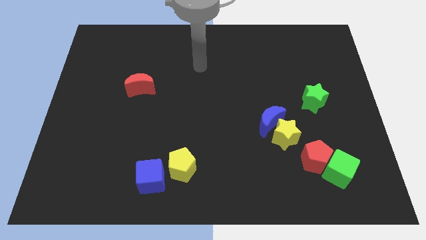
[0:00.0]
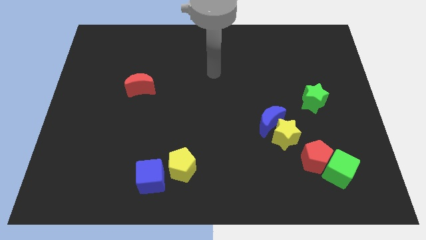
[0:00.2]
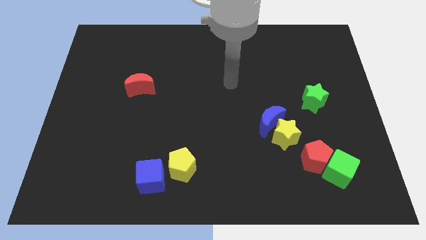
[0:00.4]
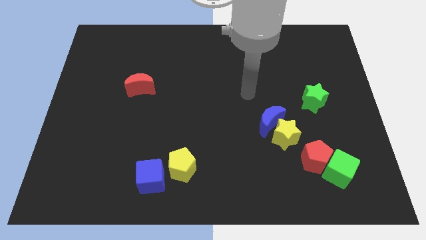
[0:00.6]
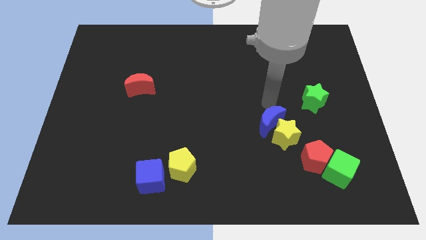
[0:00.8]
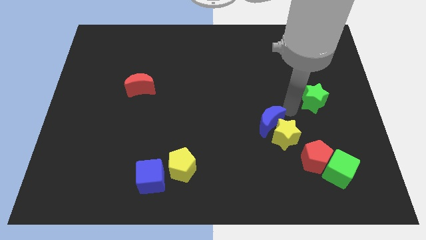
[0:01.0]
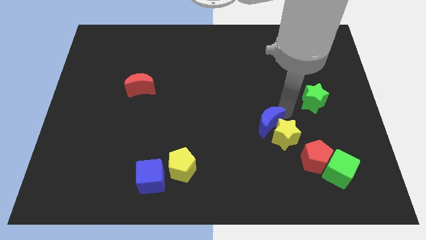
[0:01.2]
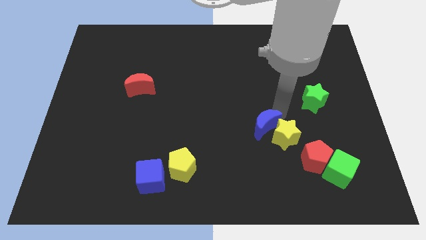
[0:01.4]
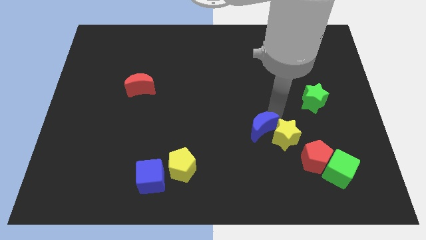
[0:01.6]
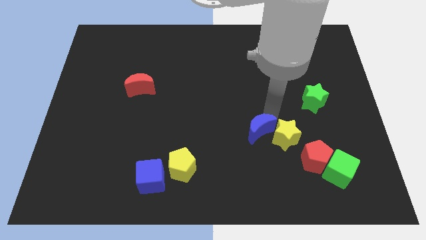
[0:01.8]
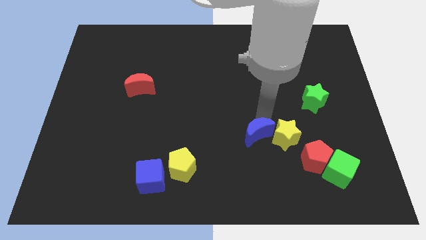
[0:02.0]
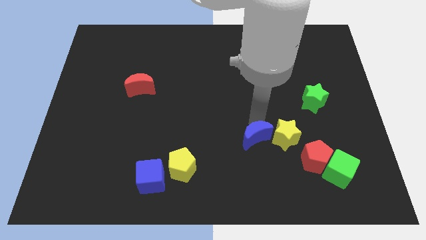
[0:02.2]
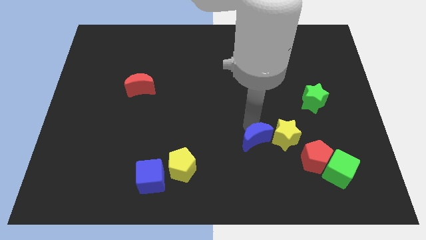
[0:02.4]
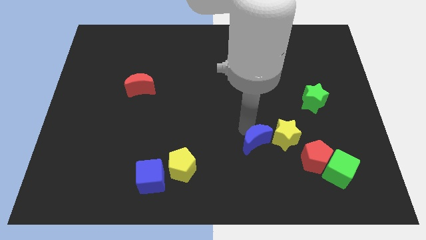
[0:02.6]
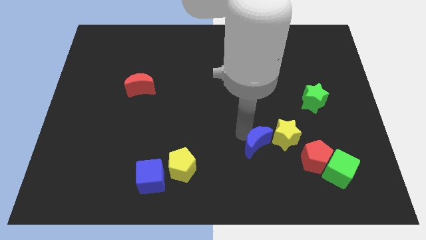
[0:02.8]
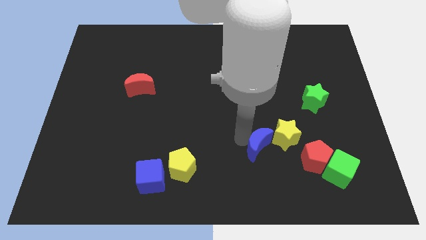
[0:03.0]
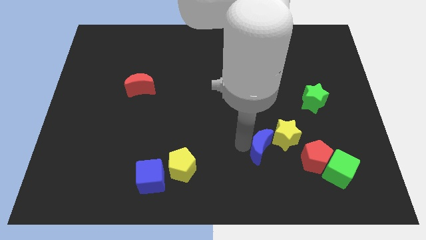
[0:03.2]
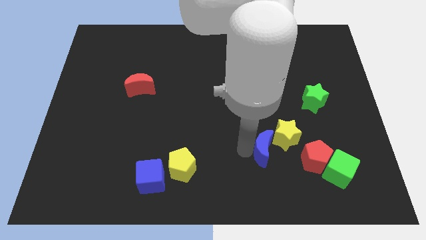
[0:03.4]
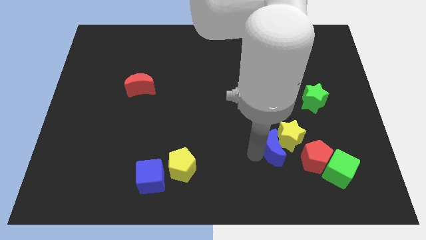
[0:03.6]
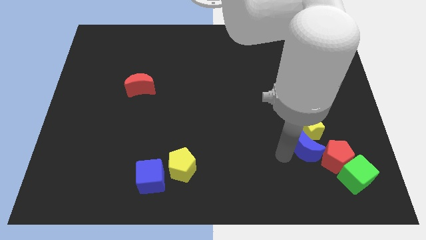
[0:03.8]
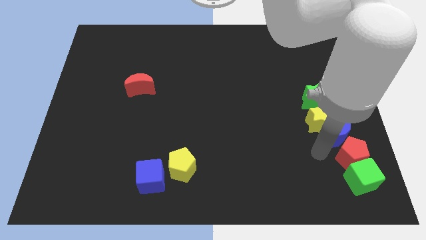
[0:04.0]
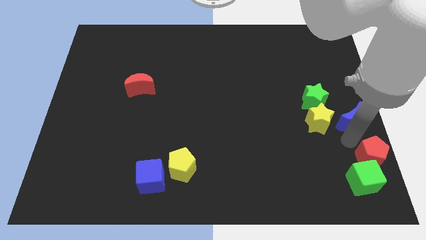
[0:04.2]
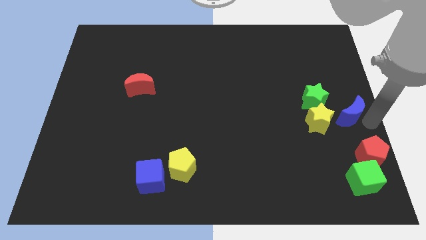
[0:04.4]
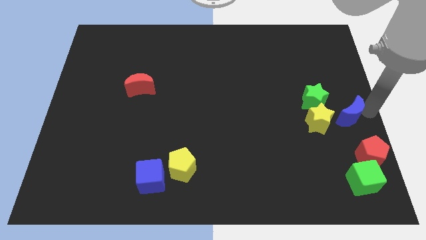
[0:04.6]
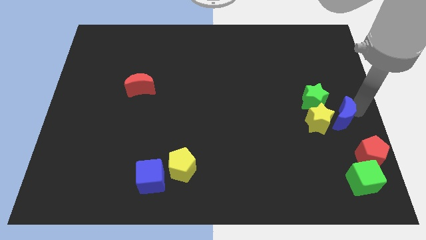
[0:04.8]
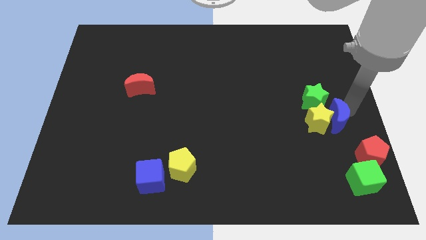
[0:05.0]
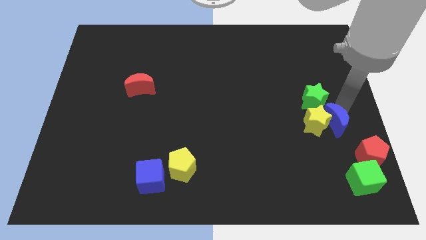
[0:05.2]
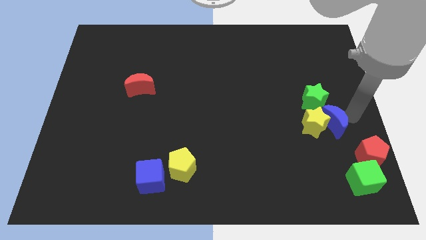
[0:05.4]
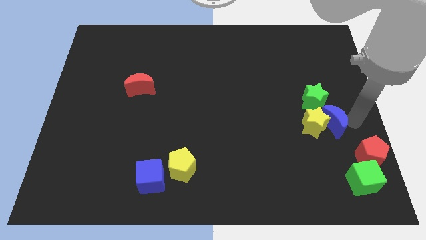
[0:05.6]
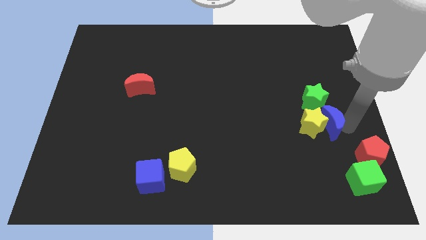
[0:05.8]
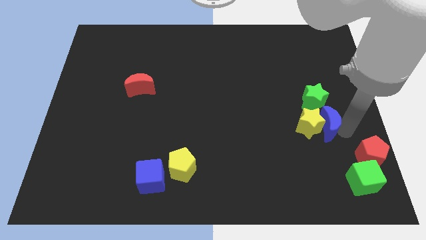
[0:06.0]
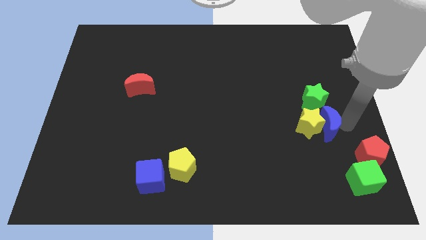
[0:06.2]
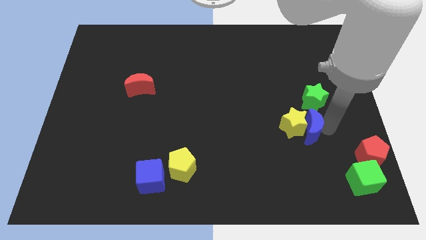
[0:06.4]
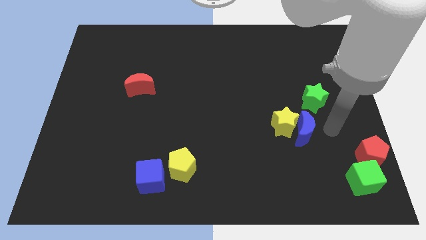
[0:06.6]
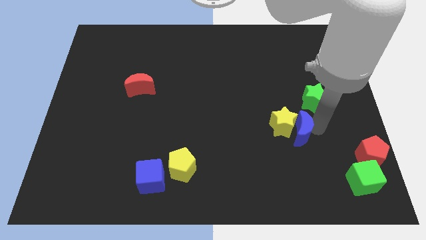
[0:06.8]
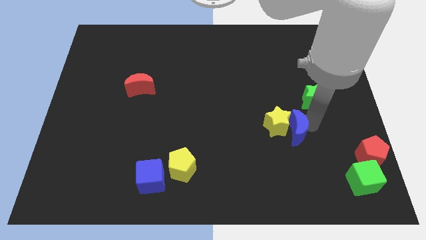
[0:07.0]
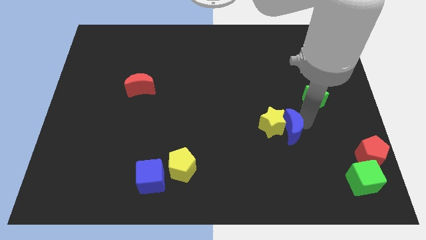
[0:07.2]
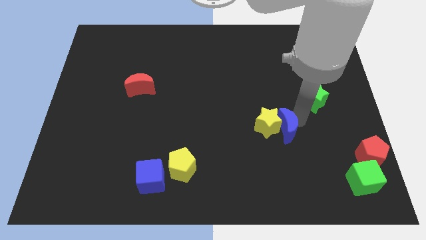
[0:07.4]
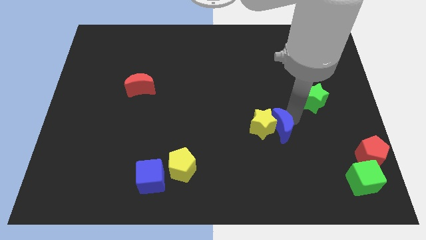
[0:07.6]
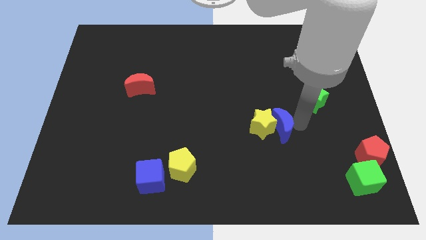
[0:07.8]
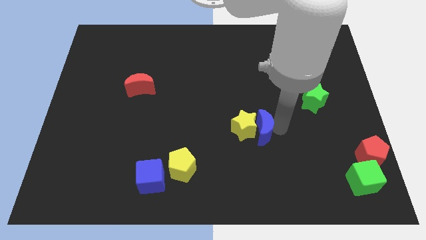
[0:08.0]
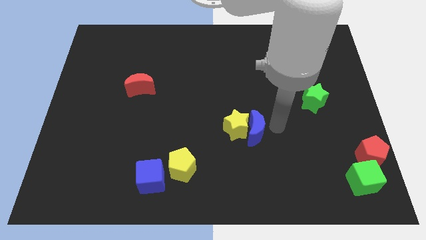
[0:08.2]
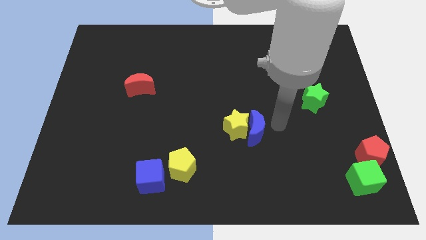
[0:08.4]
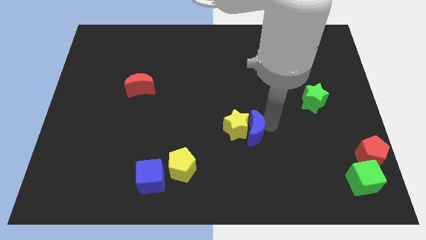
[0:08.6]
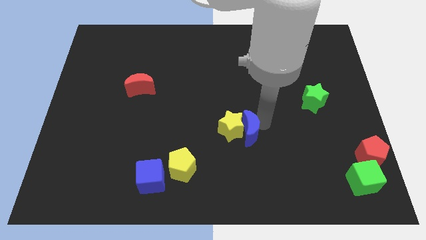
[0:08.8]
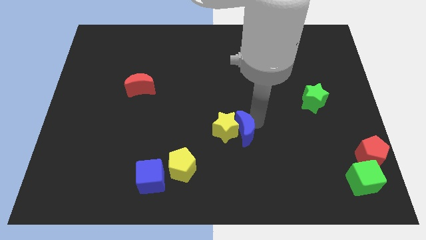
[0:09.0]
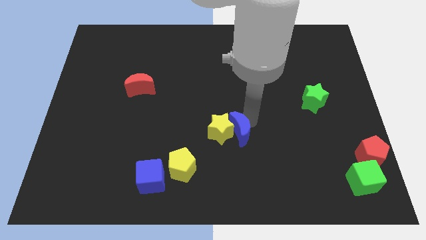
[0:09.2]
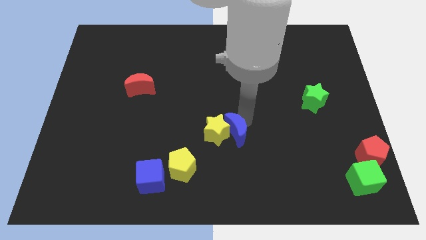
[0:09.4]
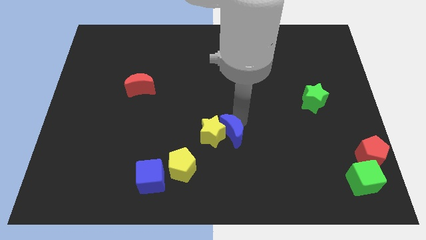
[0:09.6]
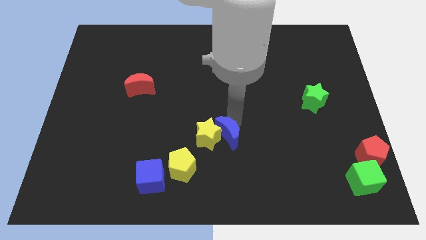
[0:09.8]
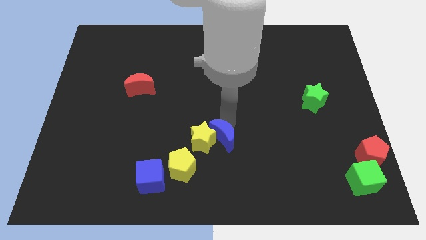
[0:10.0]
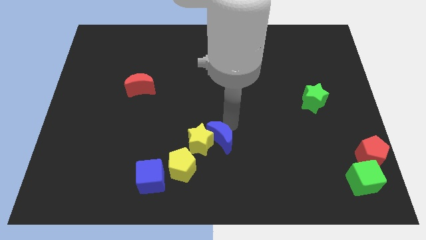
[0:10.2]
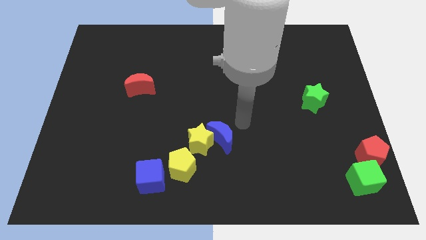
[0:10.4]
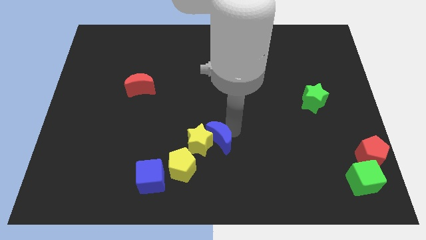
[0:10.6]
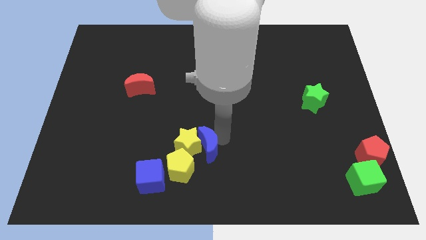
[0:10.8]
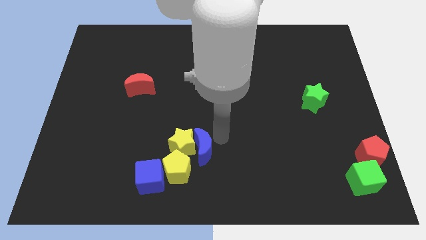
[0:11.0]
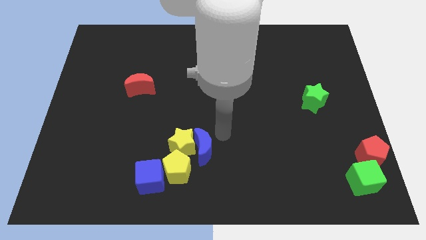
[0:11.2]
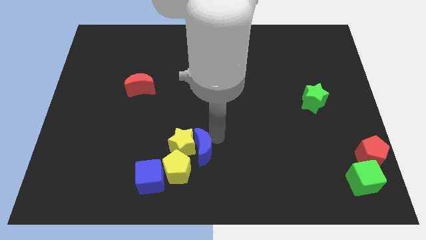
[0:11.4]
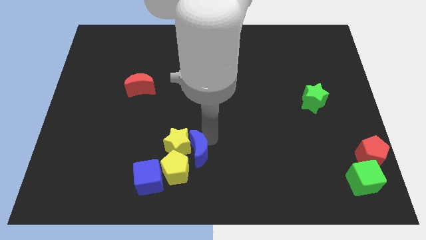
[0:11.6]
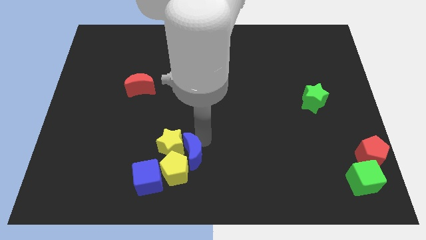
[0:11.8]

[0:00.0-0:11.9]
move the blue moon to the yellow pentagon

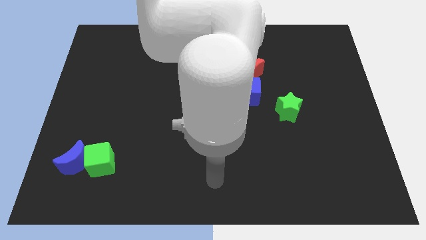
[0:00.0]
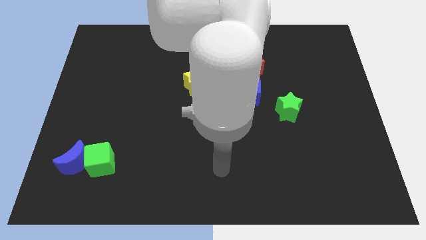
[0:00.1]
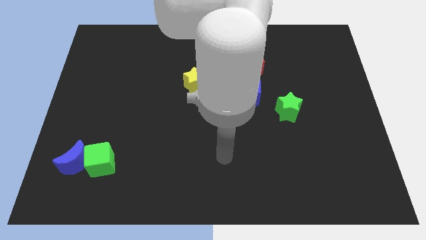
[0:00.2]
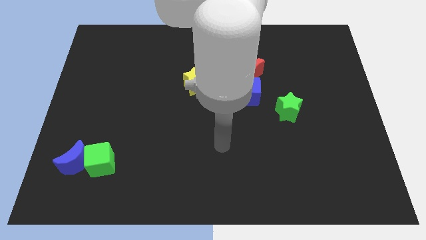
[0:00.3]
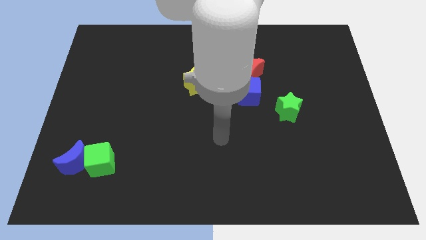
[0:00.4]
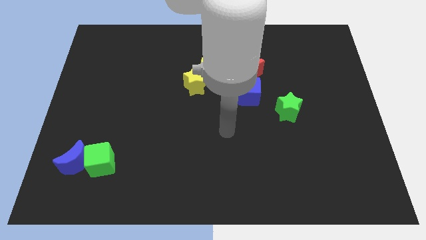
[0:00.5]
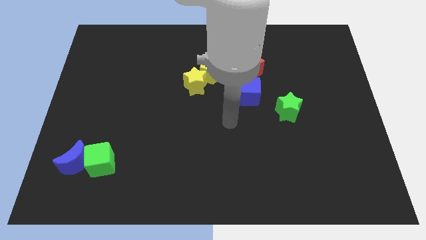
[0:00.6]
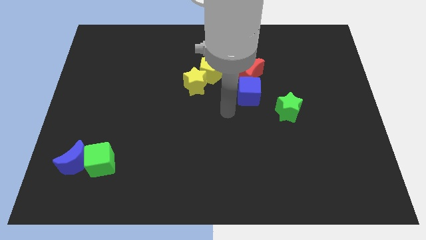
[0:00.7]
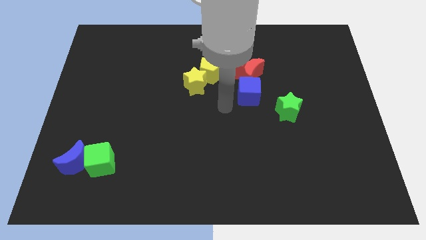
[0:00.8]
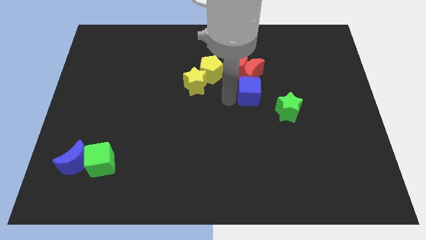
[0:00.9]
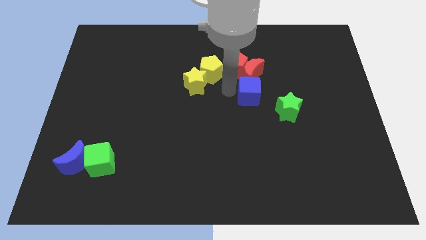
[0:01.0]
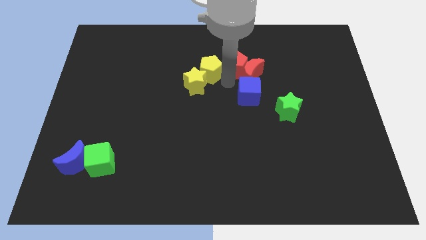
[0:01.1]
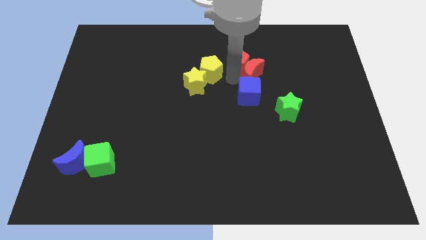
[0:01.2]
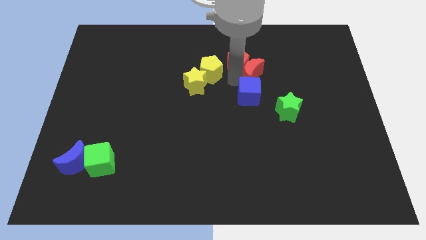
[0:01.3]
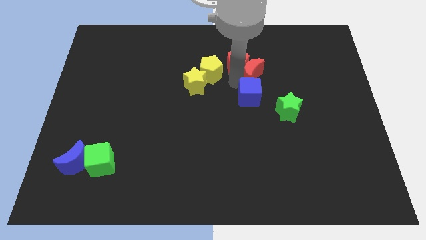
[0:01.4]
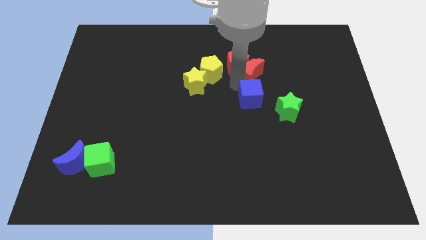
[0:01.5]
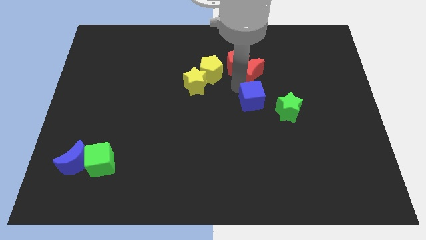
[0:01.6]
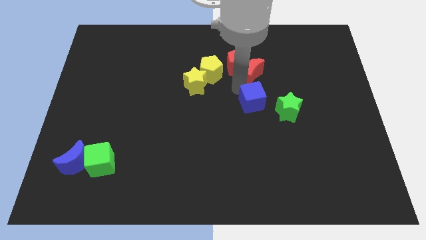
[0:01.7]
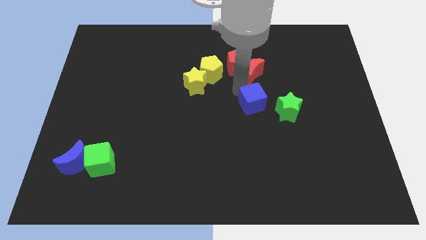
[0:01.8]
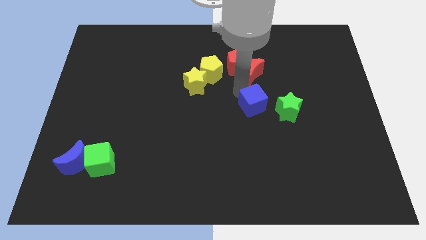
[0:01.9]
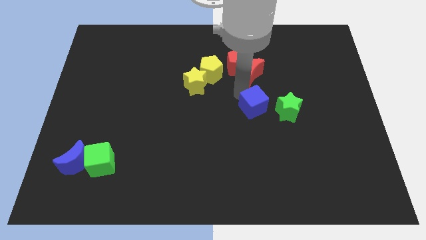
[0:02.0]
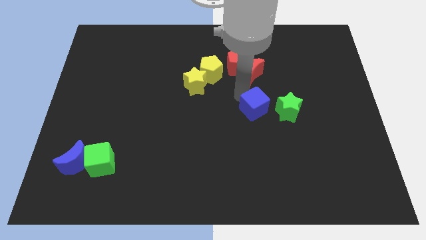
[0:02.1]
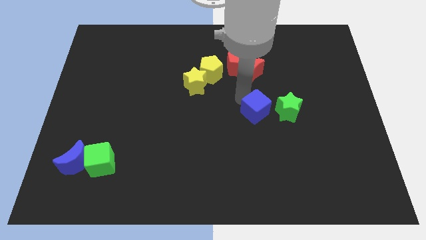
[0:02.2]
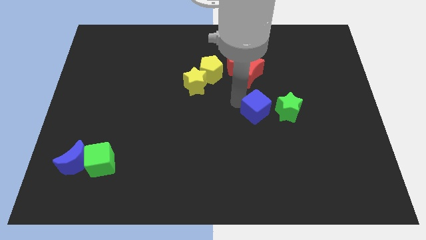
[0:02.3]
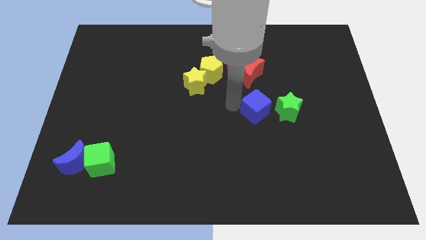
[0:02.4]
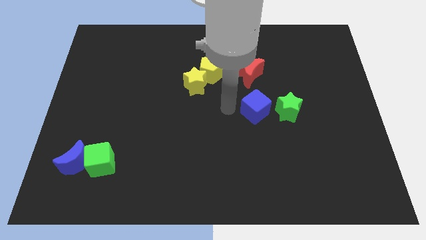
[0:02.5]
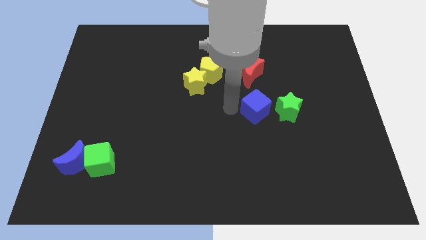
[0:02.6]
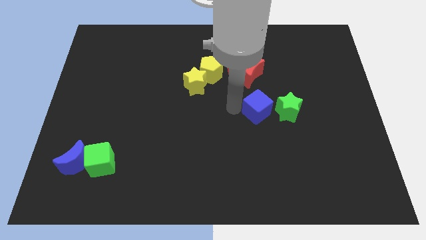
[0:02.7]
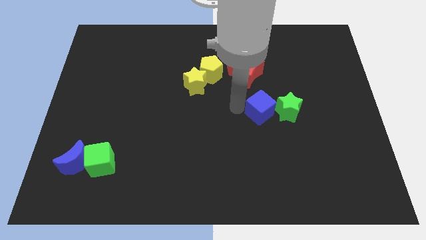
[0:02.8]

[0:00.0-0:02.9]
move the blue cube close to the green star
